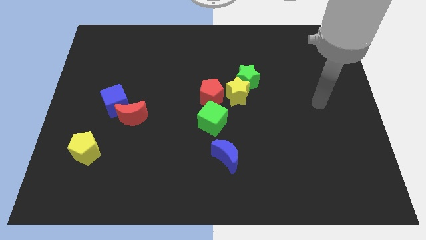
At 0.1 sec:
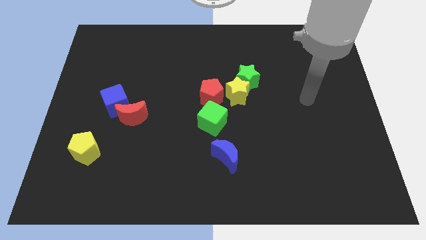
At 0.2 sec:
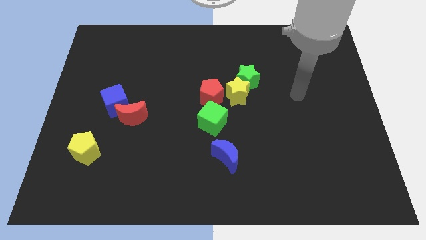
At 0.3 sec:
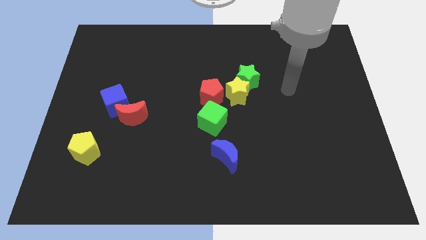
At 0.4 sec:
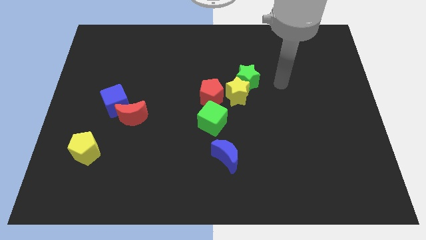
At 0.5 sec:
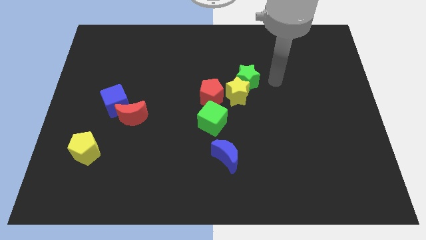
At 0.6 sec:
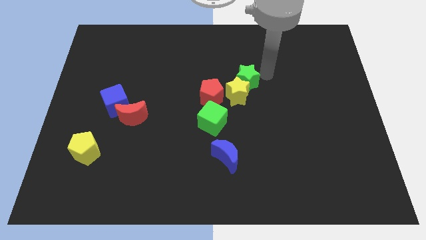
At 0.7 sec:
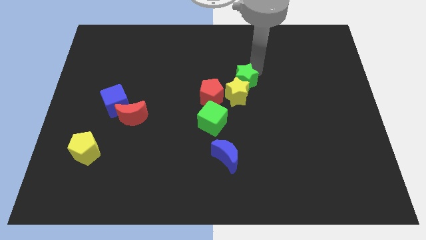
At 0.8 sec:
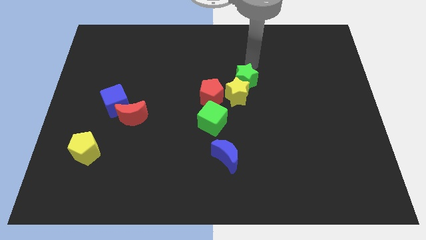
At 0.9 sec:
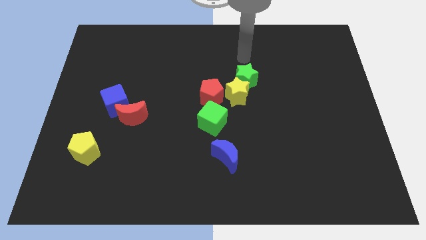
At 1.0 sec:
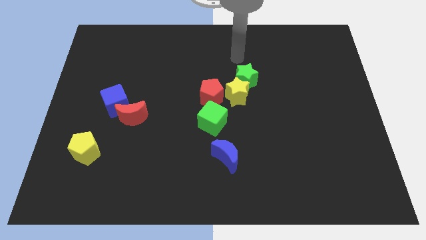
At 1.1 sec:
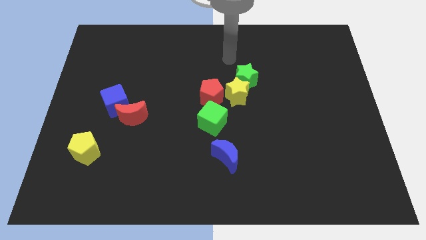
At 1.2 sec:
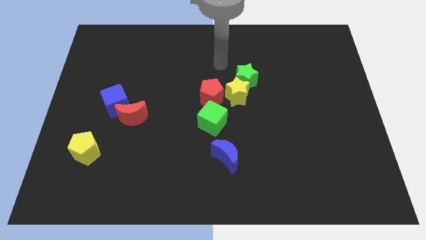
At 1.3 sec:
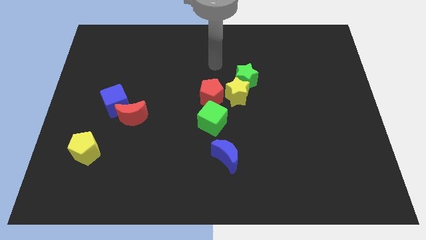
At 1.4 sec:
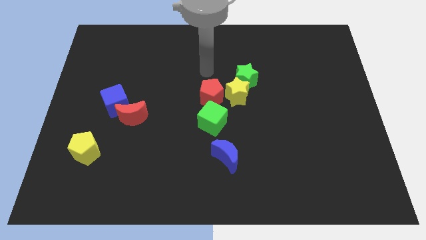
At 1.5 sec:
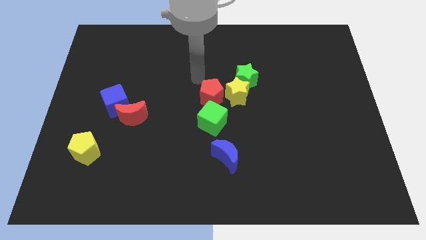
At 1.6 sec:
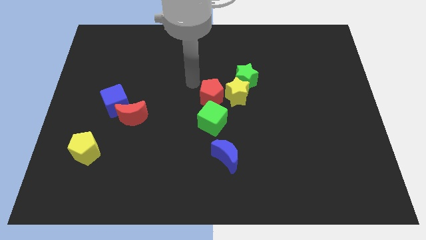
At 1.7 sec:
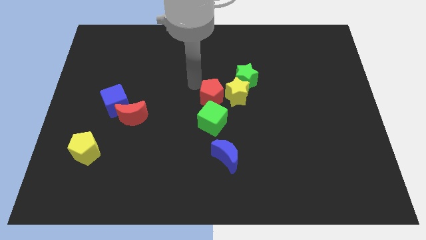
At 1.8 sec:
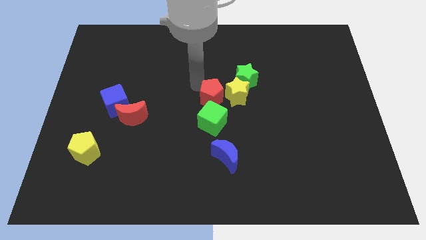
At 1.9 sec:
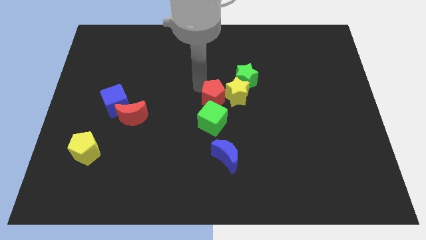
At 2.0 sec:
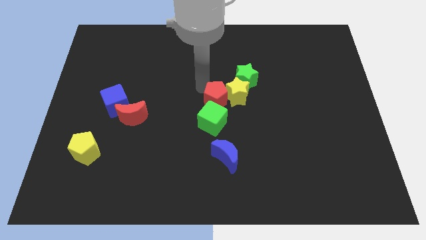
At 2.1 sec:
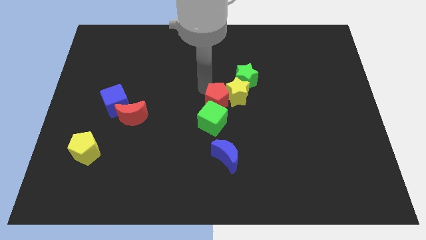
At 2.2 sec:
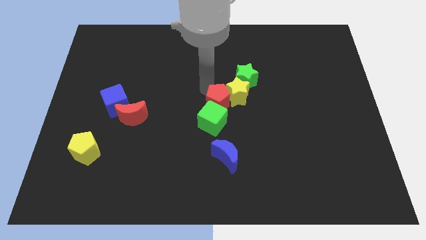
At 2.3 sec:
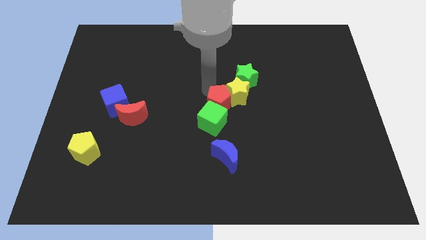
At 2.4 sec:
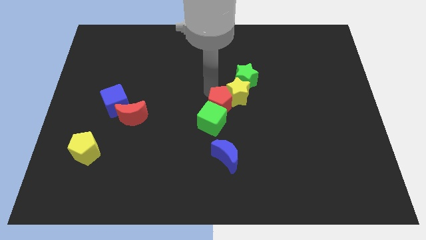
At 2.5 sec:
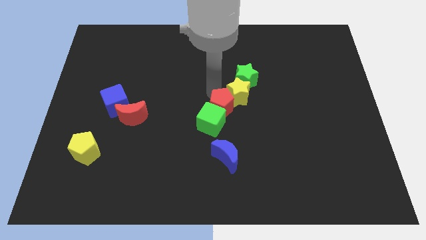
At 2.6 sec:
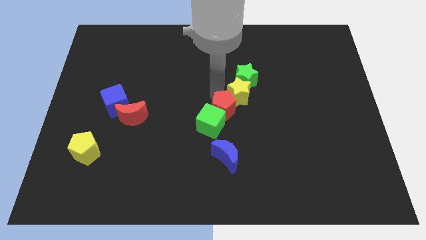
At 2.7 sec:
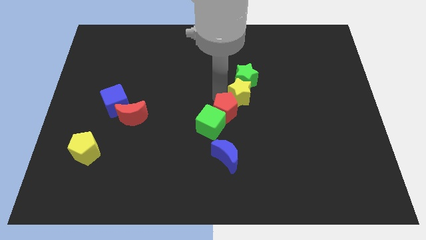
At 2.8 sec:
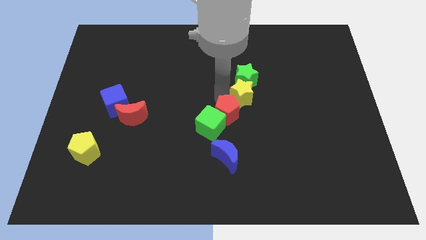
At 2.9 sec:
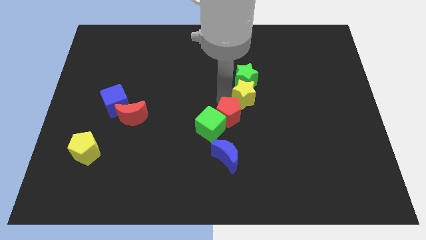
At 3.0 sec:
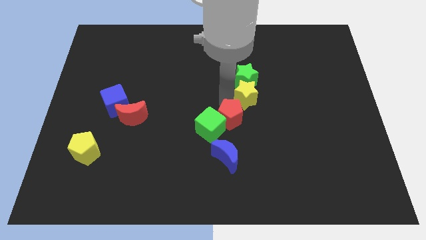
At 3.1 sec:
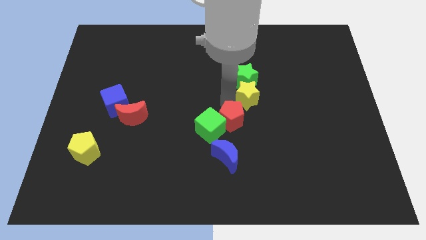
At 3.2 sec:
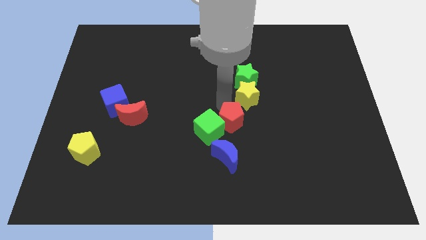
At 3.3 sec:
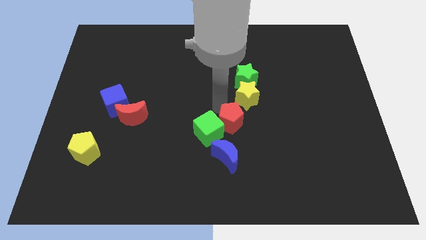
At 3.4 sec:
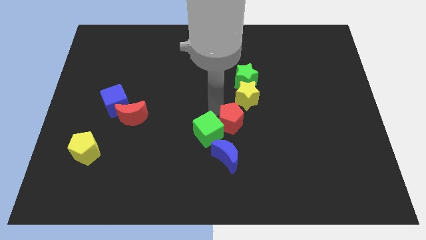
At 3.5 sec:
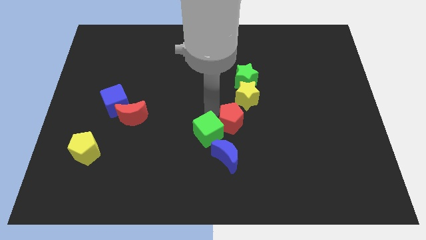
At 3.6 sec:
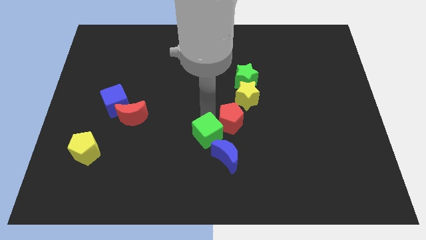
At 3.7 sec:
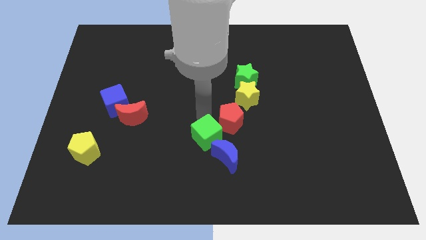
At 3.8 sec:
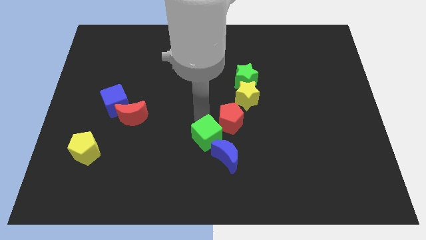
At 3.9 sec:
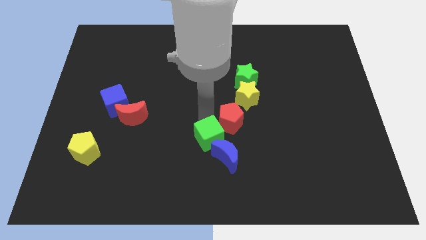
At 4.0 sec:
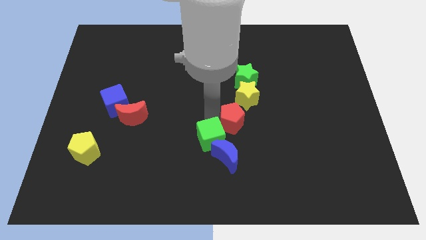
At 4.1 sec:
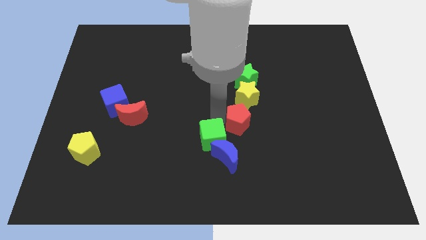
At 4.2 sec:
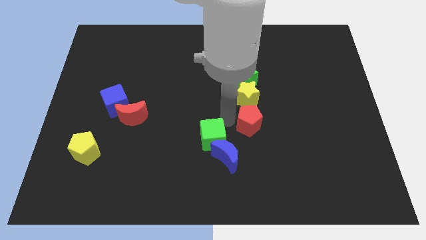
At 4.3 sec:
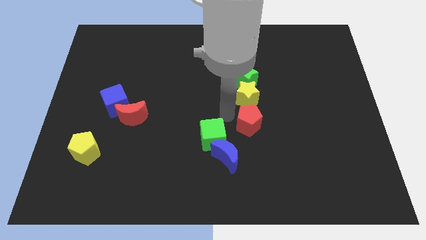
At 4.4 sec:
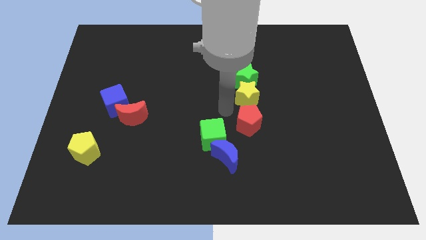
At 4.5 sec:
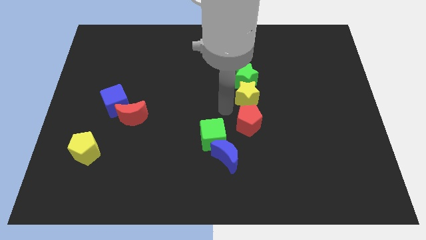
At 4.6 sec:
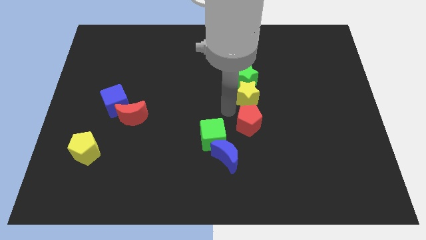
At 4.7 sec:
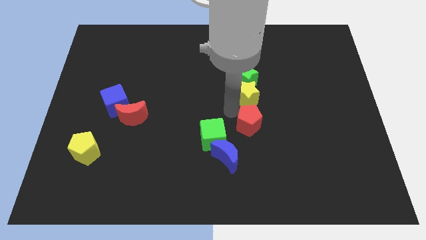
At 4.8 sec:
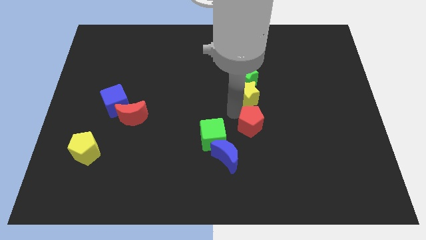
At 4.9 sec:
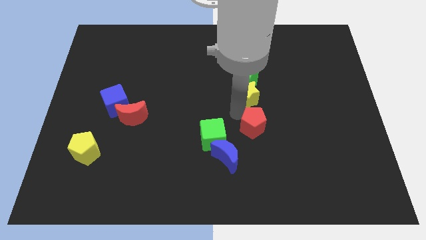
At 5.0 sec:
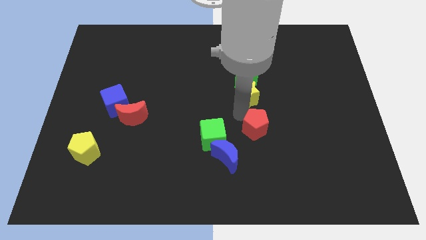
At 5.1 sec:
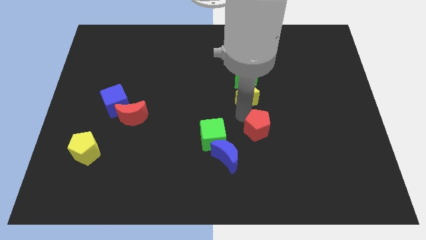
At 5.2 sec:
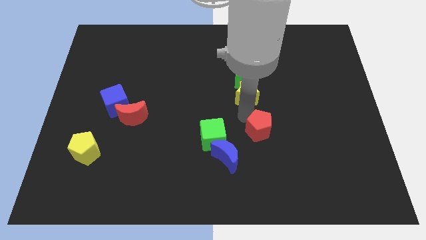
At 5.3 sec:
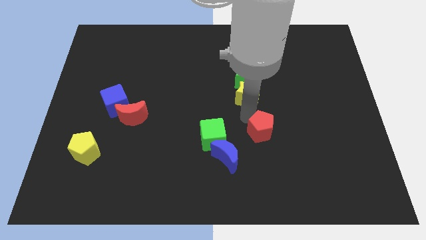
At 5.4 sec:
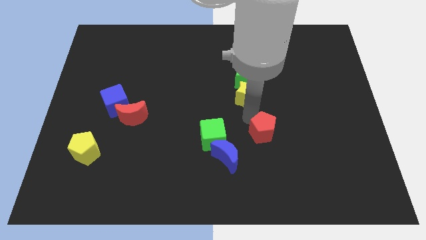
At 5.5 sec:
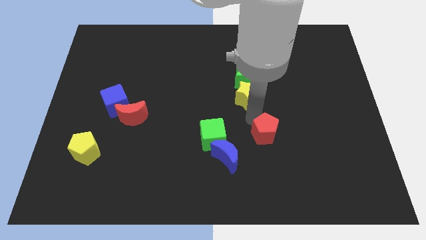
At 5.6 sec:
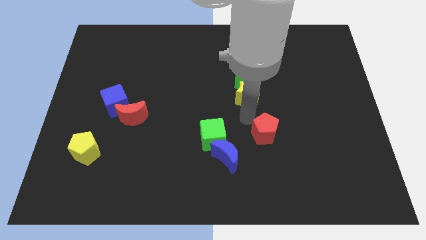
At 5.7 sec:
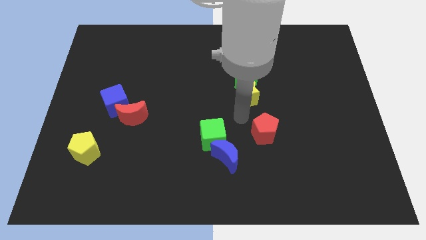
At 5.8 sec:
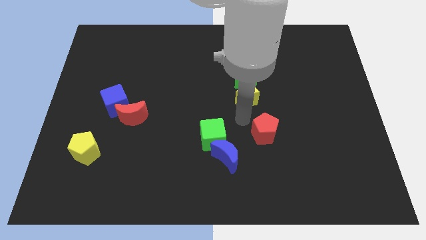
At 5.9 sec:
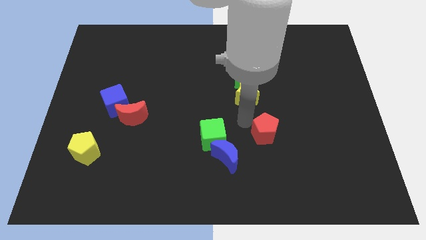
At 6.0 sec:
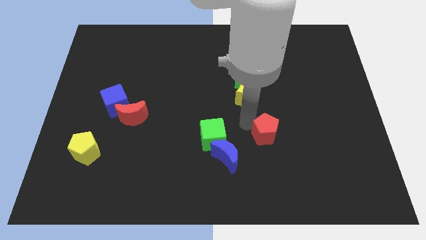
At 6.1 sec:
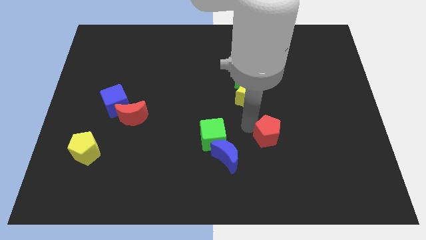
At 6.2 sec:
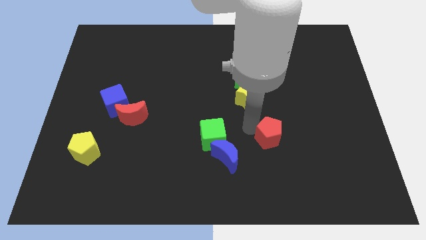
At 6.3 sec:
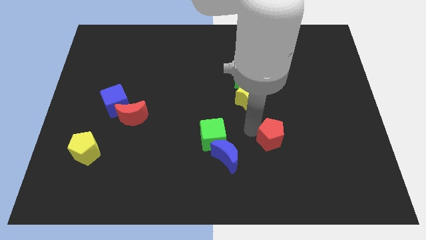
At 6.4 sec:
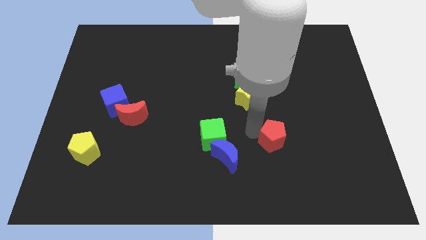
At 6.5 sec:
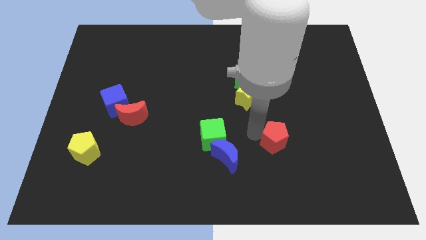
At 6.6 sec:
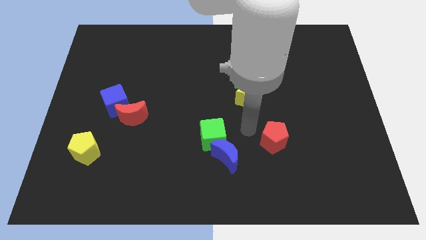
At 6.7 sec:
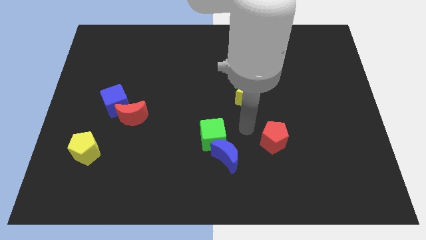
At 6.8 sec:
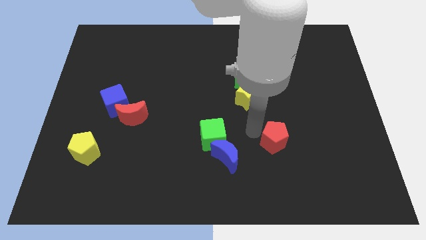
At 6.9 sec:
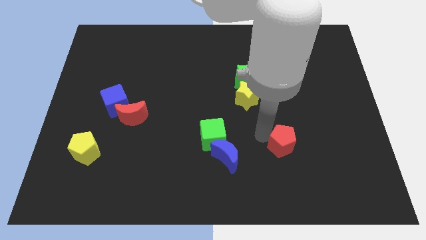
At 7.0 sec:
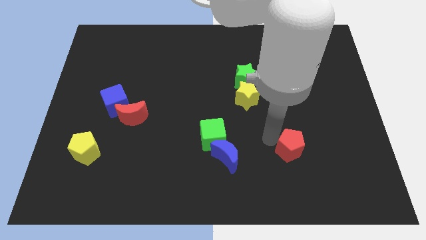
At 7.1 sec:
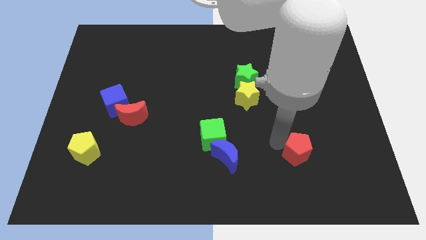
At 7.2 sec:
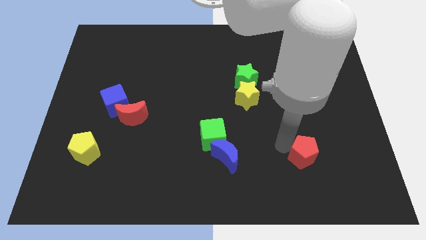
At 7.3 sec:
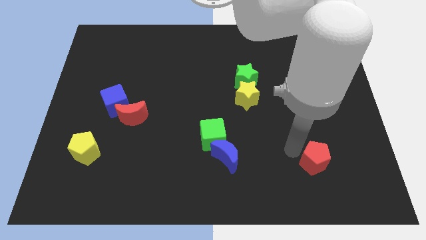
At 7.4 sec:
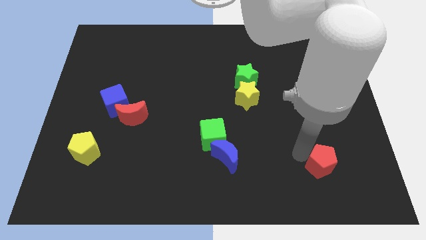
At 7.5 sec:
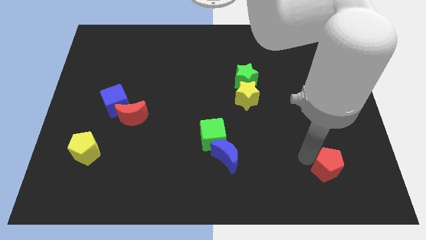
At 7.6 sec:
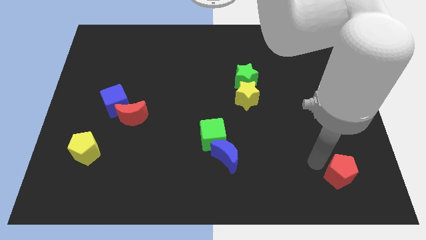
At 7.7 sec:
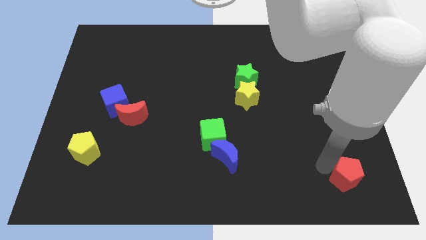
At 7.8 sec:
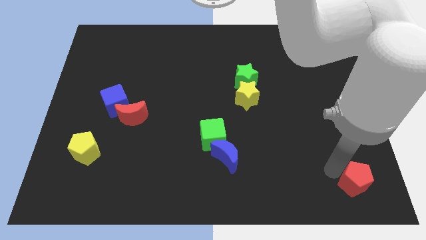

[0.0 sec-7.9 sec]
put the red pentagon to the bottom right corner
